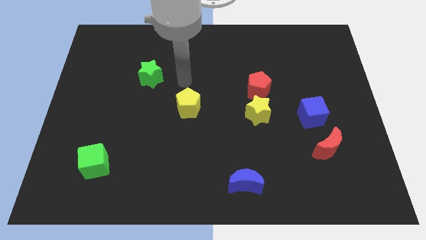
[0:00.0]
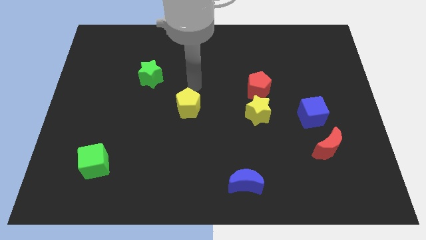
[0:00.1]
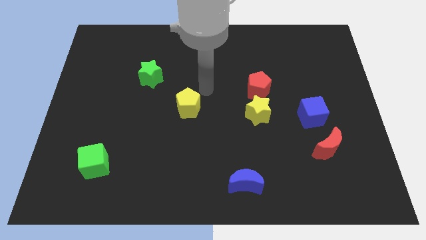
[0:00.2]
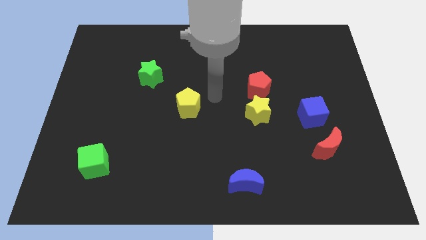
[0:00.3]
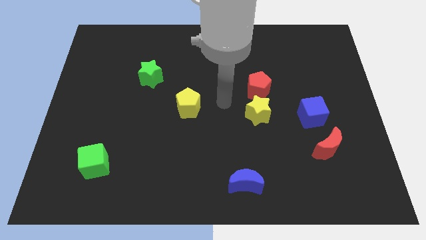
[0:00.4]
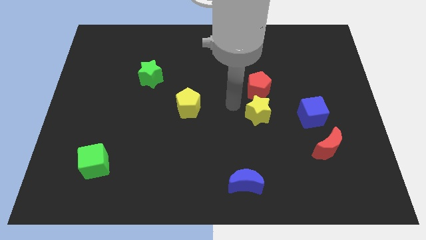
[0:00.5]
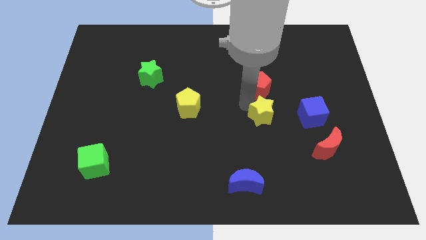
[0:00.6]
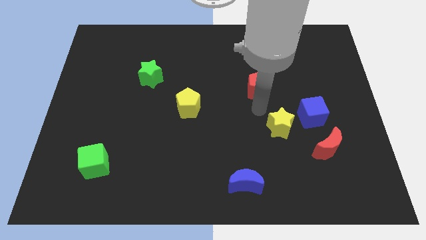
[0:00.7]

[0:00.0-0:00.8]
move the red pentagon away from the yellow star

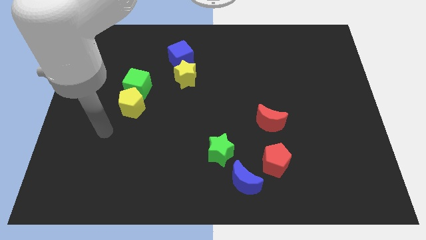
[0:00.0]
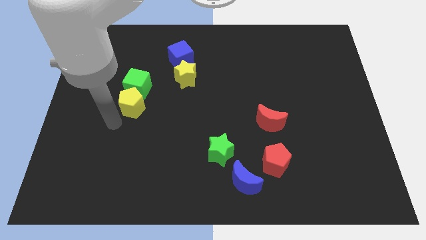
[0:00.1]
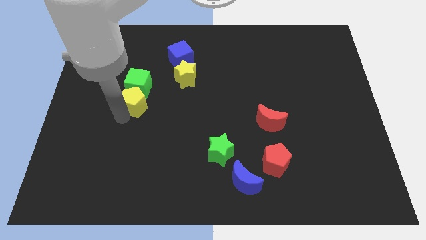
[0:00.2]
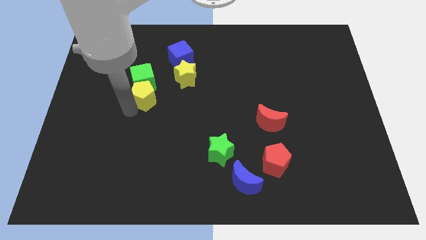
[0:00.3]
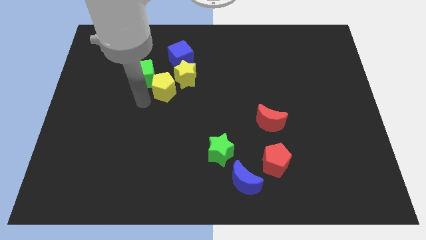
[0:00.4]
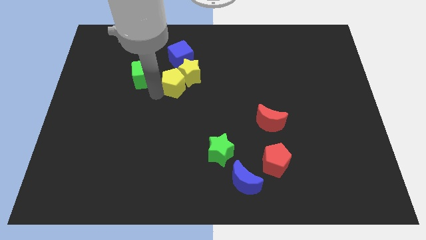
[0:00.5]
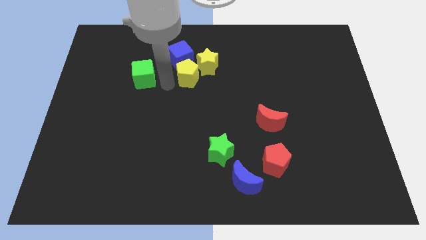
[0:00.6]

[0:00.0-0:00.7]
move the green cube away from the yellow pentagon

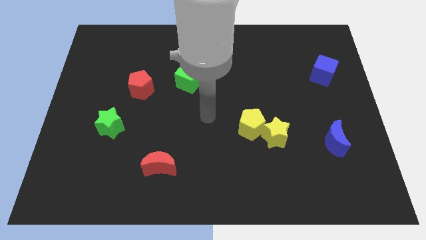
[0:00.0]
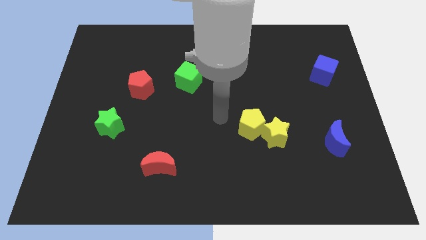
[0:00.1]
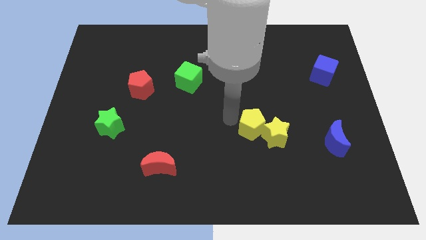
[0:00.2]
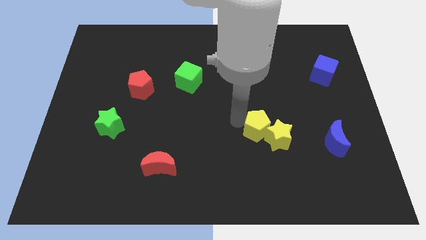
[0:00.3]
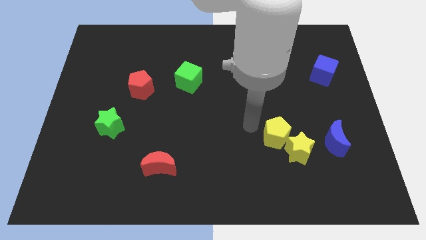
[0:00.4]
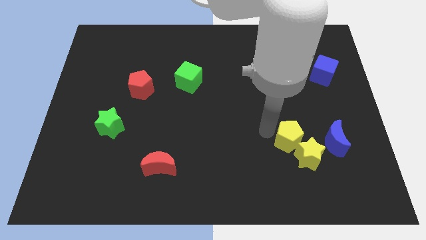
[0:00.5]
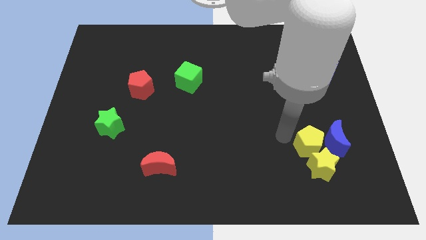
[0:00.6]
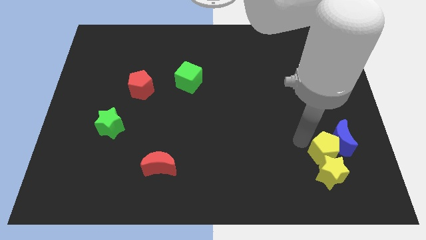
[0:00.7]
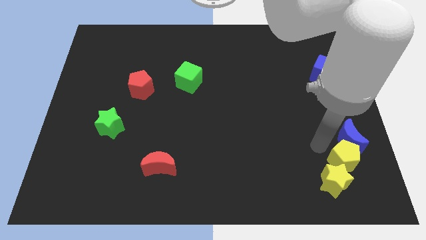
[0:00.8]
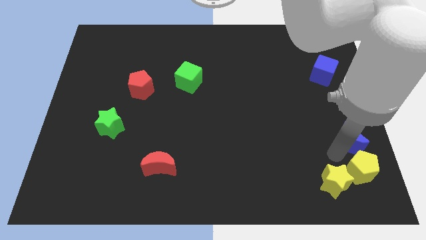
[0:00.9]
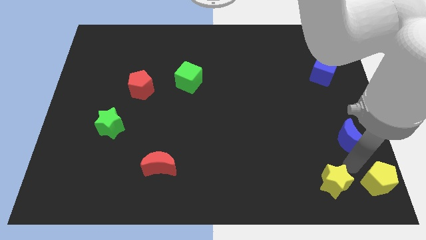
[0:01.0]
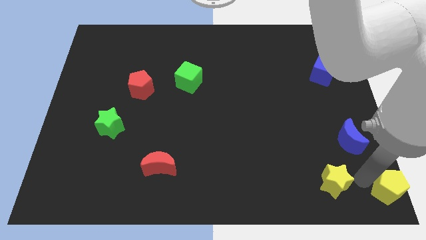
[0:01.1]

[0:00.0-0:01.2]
separate the yellow star from the yellow pentagon

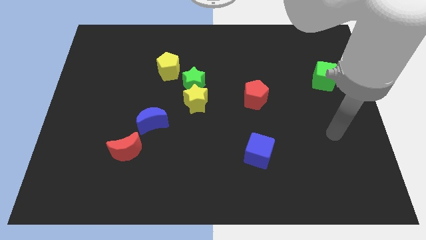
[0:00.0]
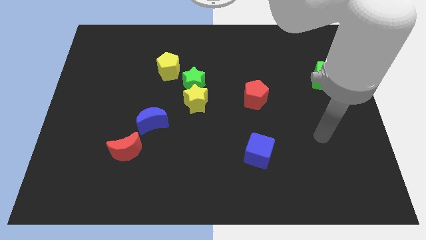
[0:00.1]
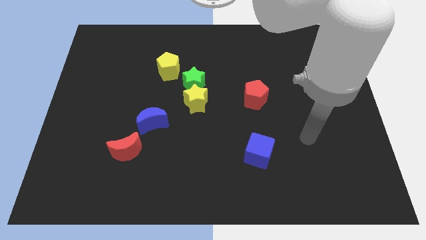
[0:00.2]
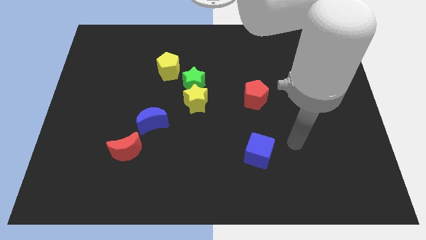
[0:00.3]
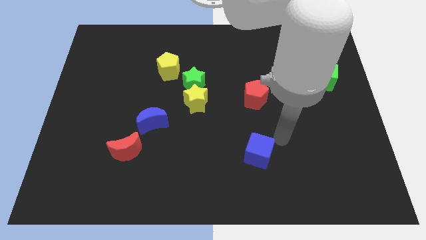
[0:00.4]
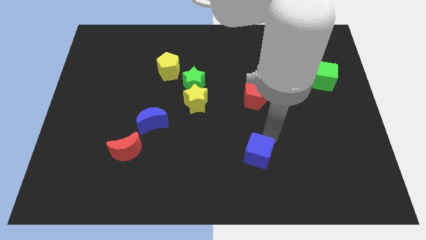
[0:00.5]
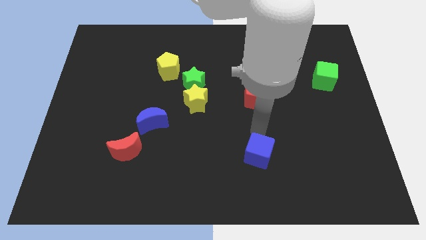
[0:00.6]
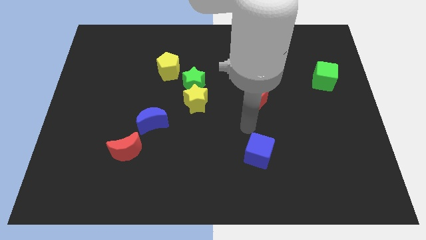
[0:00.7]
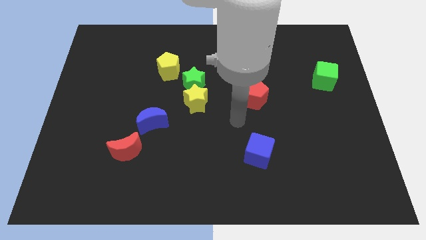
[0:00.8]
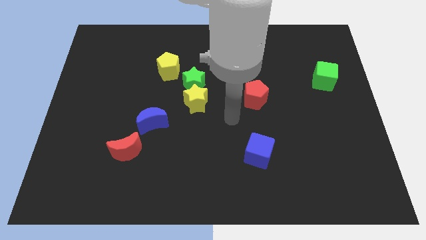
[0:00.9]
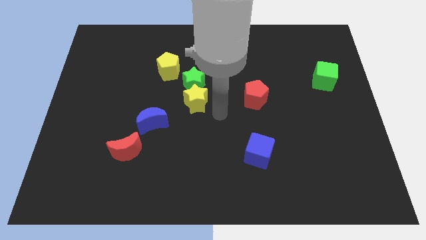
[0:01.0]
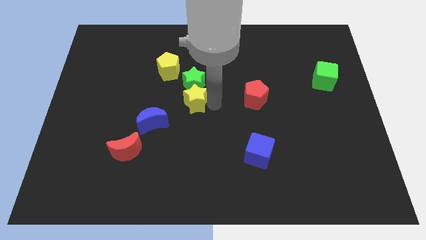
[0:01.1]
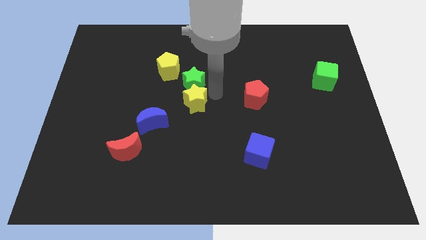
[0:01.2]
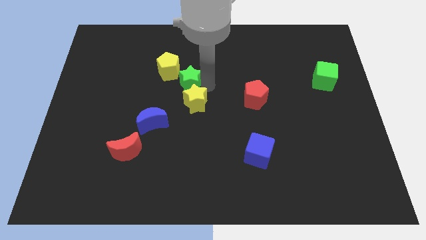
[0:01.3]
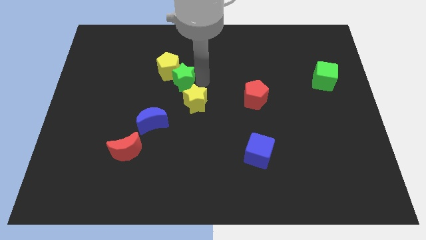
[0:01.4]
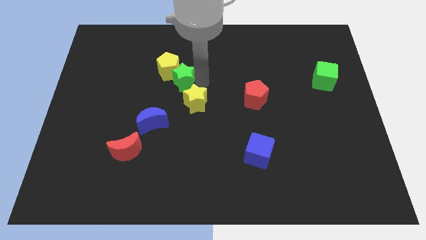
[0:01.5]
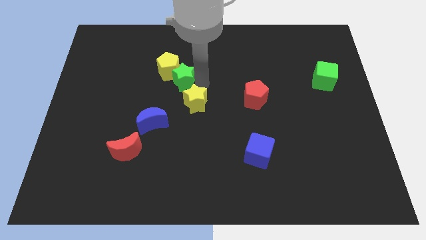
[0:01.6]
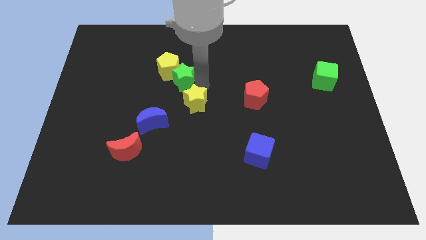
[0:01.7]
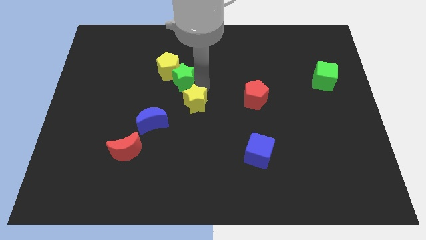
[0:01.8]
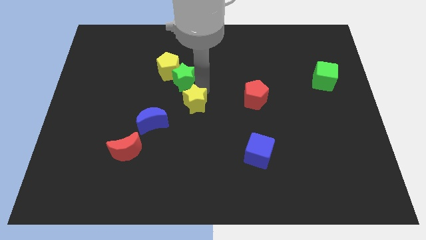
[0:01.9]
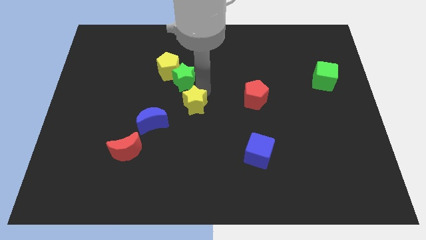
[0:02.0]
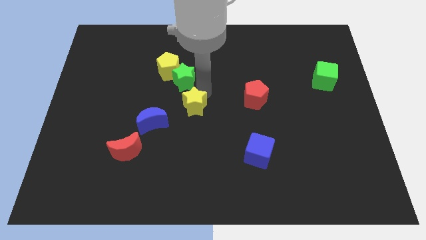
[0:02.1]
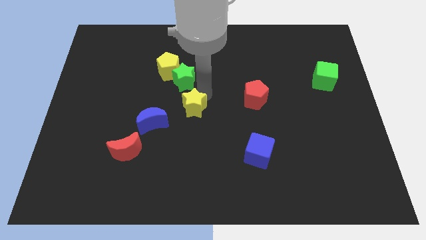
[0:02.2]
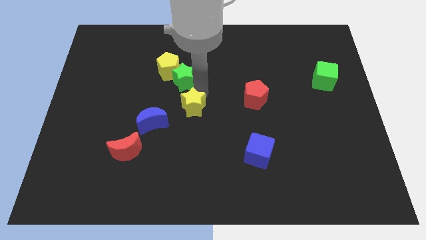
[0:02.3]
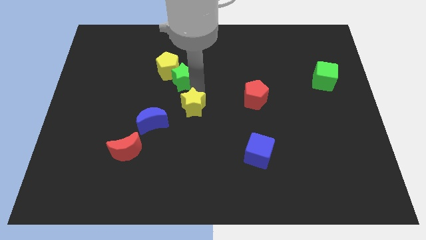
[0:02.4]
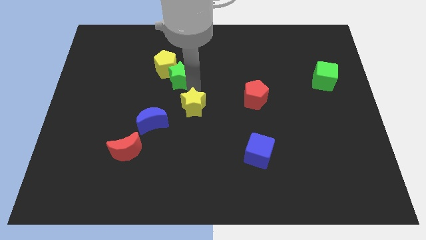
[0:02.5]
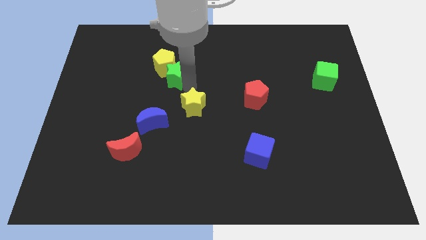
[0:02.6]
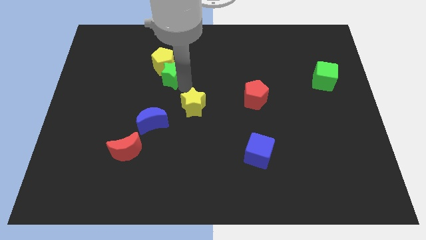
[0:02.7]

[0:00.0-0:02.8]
move the yellow star away from the green star

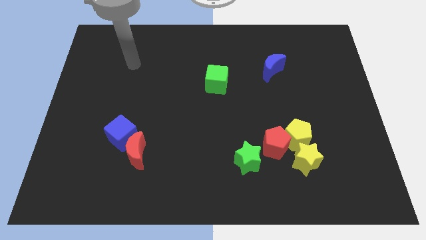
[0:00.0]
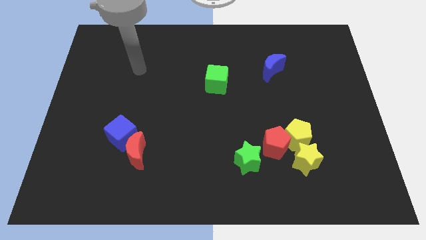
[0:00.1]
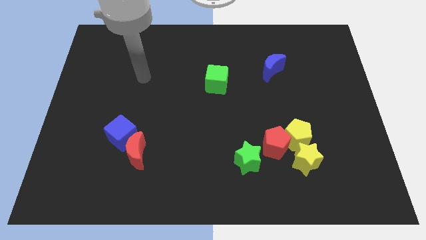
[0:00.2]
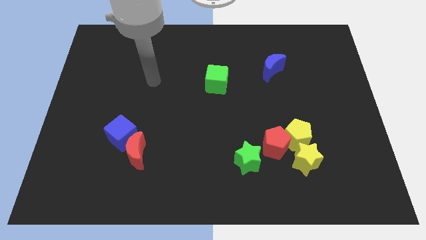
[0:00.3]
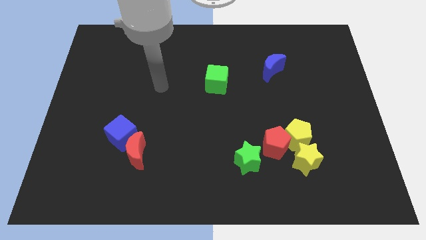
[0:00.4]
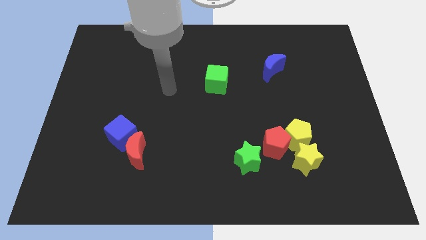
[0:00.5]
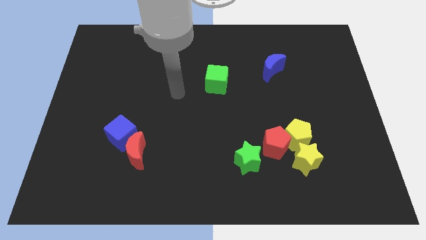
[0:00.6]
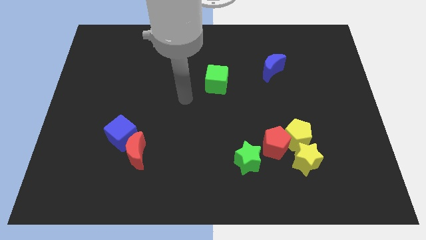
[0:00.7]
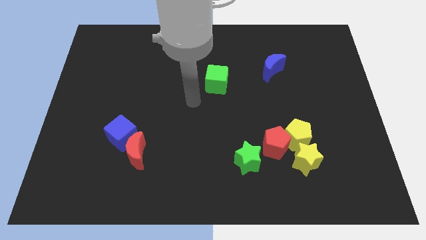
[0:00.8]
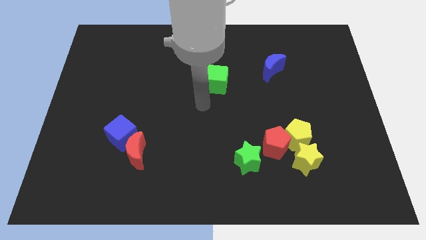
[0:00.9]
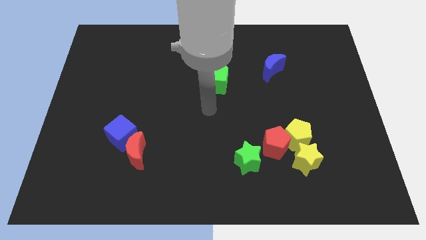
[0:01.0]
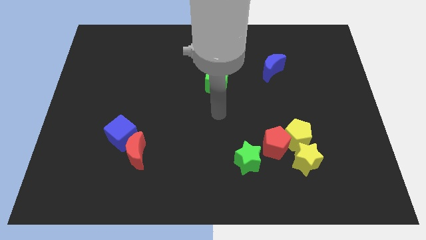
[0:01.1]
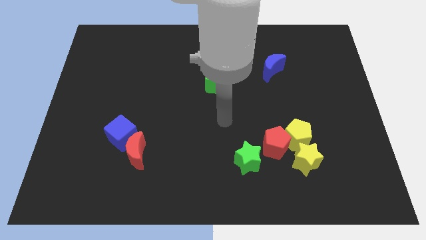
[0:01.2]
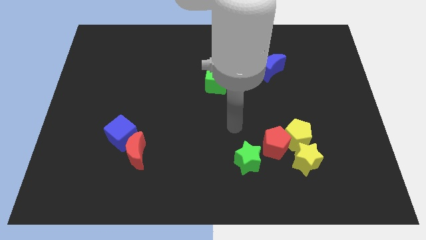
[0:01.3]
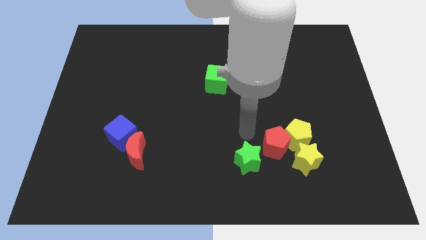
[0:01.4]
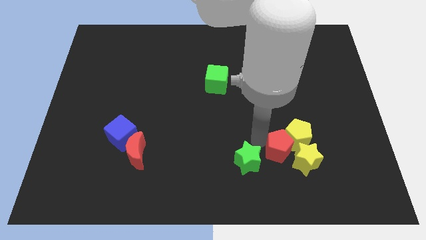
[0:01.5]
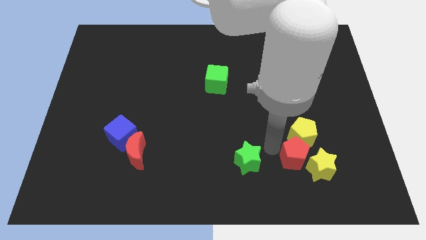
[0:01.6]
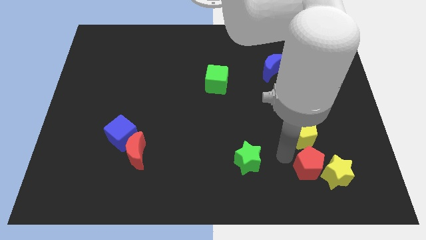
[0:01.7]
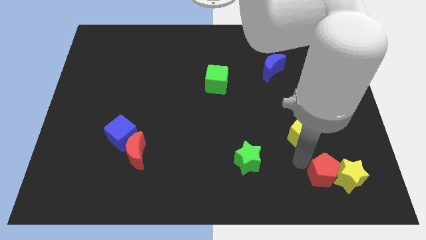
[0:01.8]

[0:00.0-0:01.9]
move the yellow pentagon away from the red pentagon and yellow star

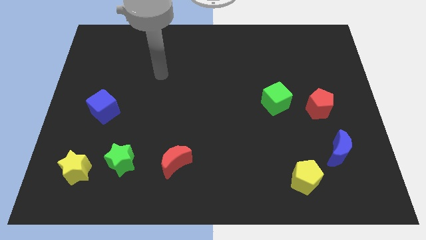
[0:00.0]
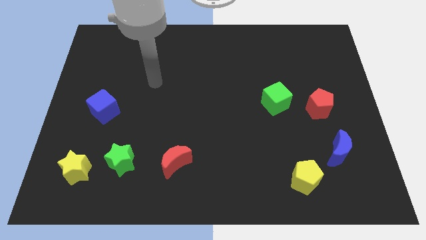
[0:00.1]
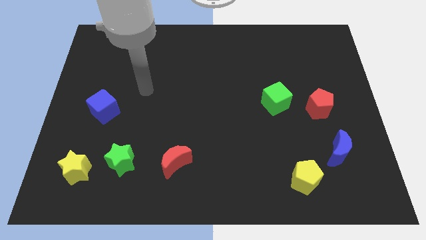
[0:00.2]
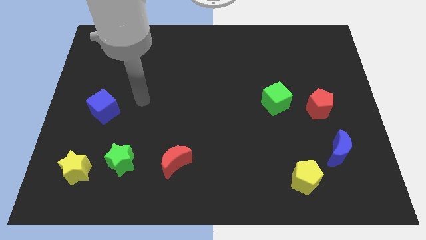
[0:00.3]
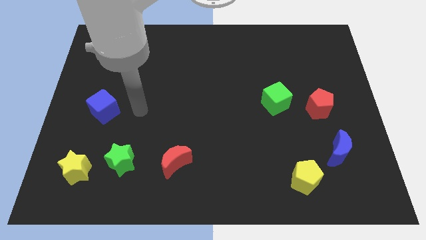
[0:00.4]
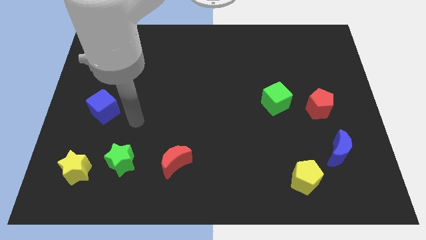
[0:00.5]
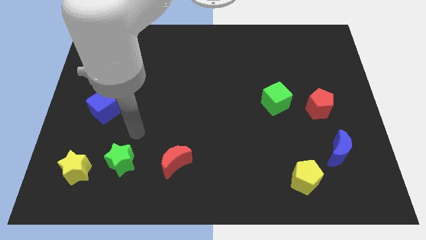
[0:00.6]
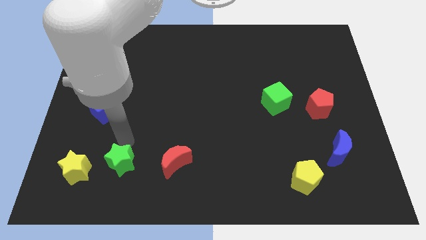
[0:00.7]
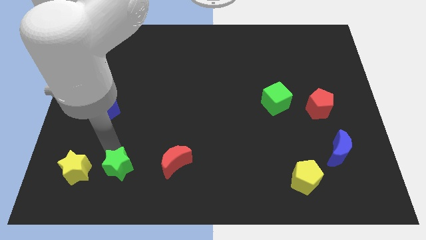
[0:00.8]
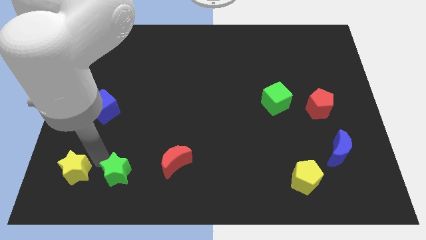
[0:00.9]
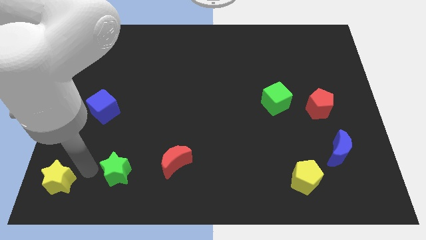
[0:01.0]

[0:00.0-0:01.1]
move the green star away from the yellow star

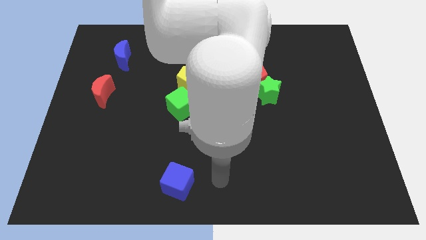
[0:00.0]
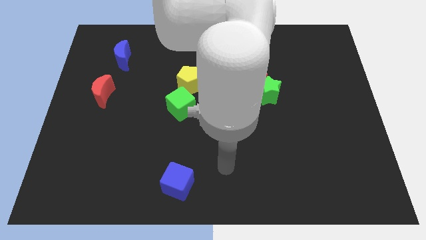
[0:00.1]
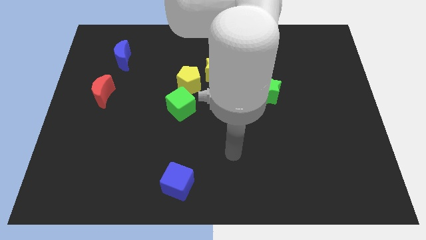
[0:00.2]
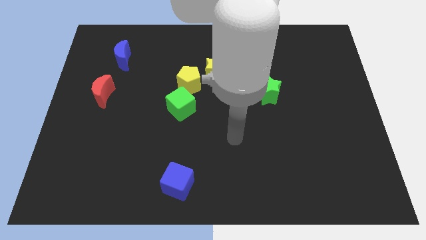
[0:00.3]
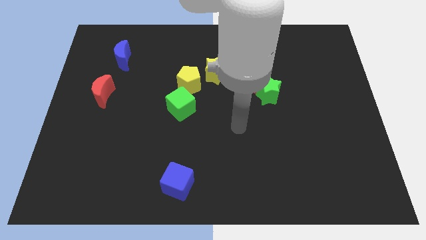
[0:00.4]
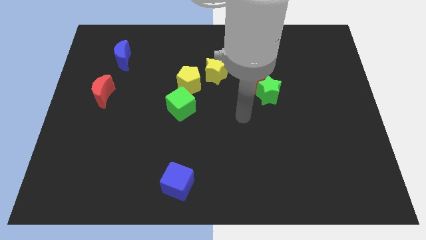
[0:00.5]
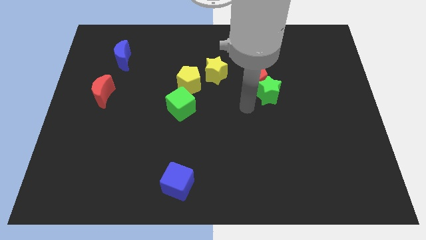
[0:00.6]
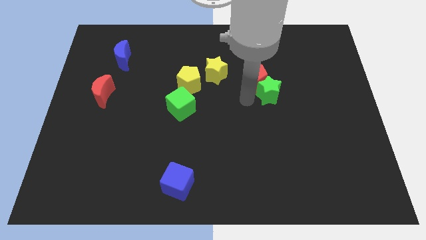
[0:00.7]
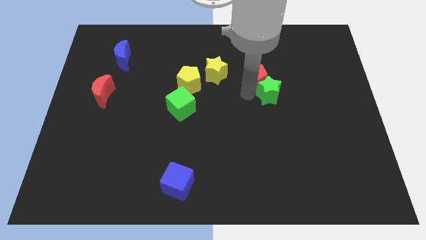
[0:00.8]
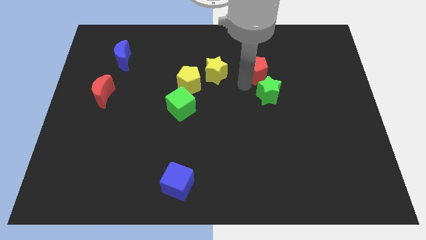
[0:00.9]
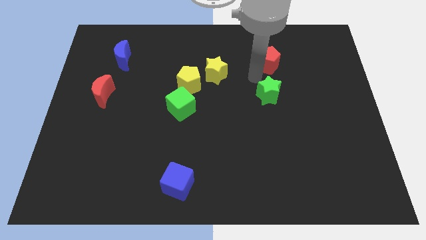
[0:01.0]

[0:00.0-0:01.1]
separate the green star from the red pentagon
